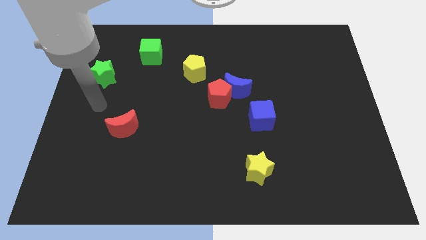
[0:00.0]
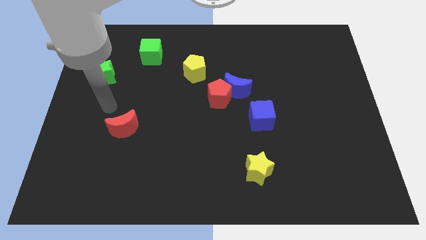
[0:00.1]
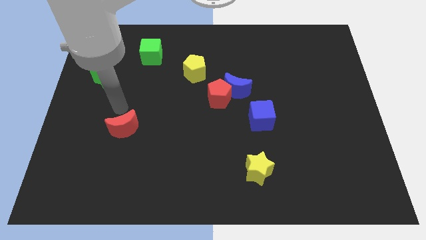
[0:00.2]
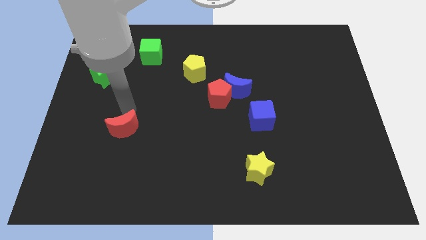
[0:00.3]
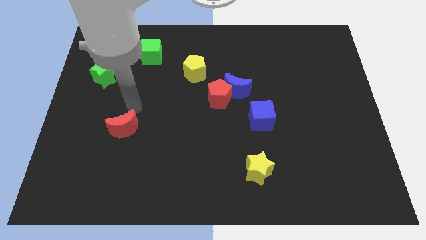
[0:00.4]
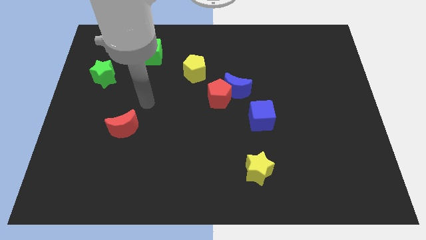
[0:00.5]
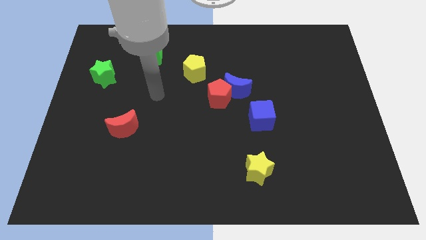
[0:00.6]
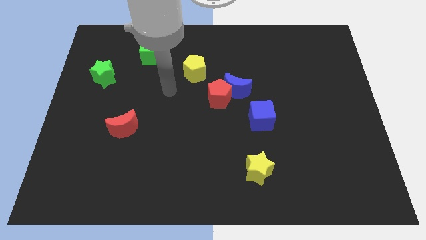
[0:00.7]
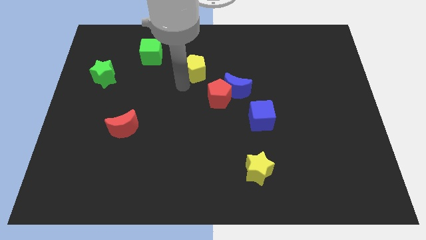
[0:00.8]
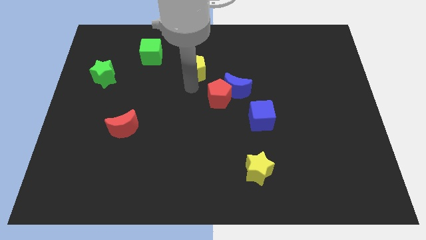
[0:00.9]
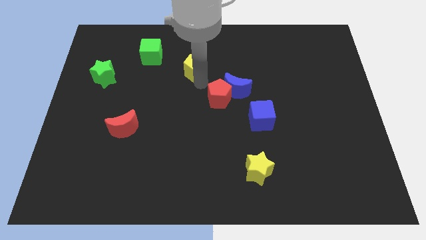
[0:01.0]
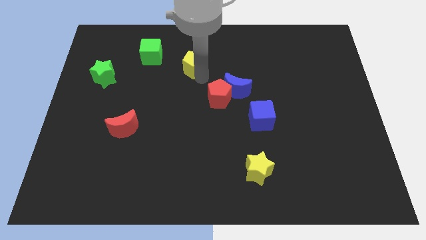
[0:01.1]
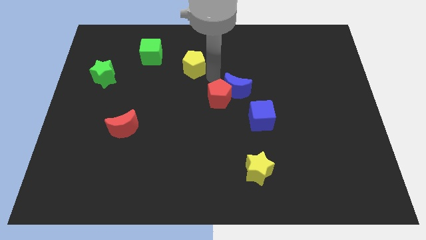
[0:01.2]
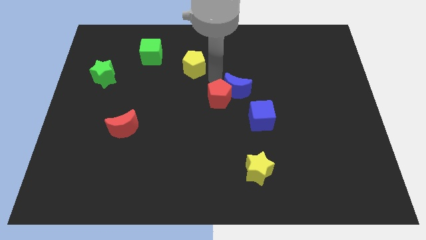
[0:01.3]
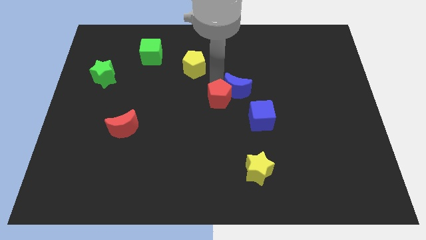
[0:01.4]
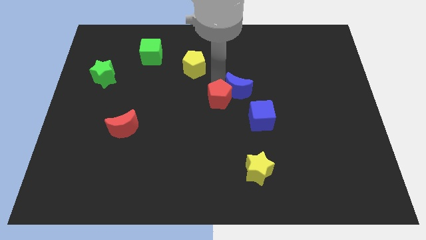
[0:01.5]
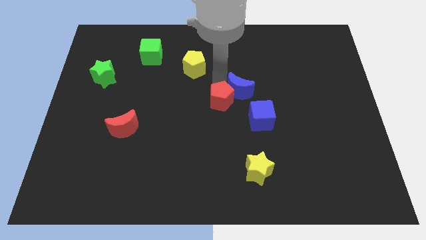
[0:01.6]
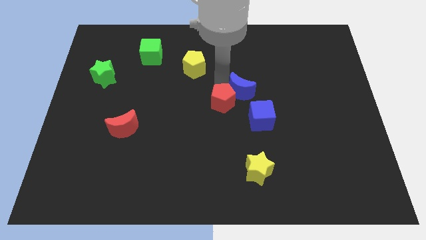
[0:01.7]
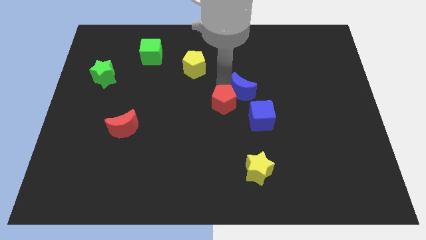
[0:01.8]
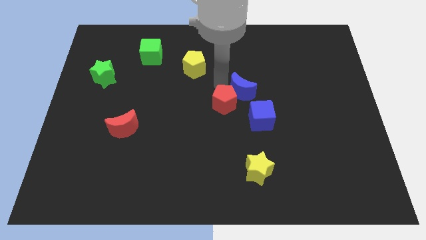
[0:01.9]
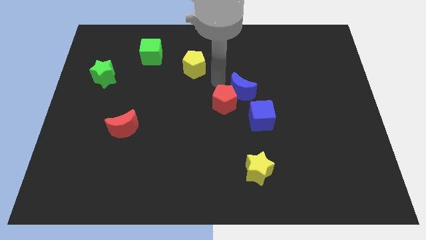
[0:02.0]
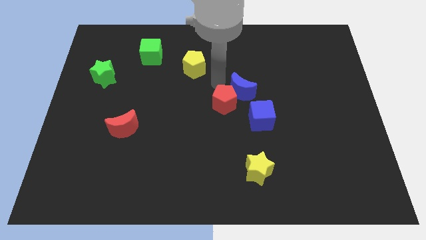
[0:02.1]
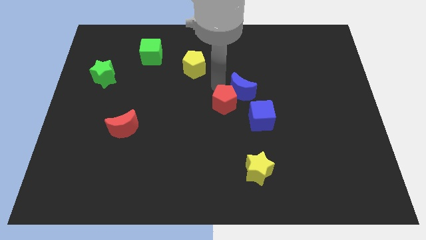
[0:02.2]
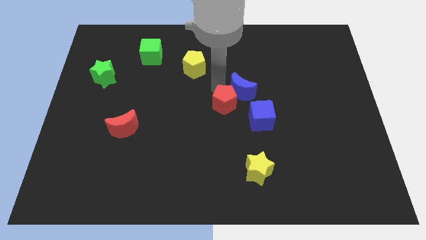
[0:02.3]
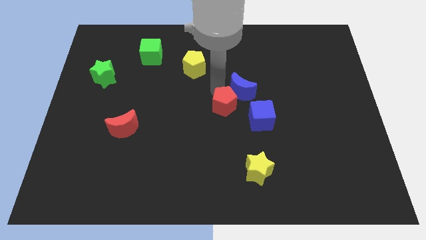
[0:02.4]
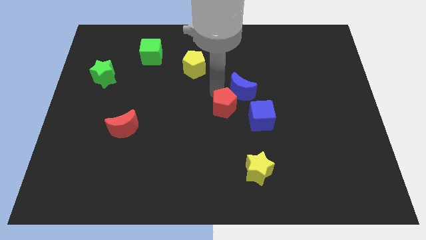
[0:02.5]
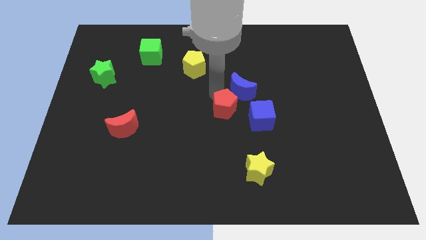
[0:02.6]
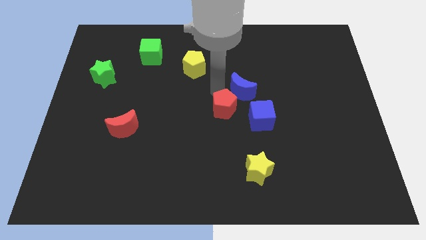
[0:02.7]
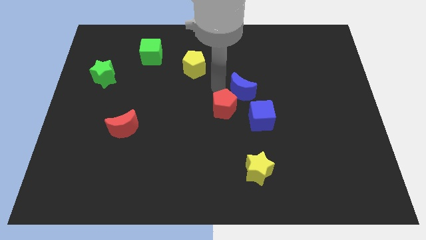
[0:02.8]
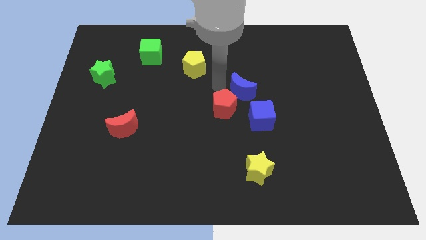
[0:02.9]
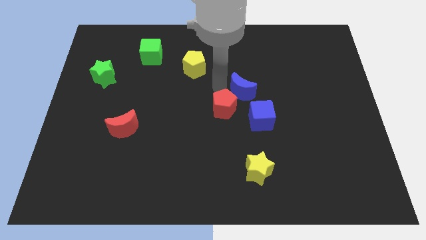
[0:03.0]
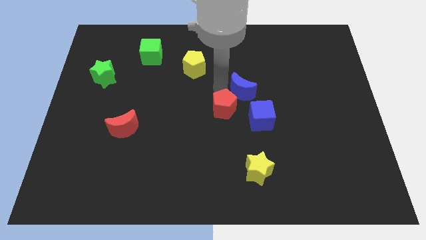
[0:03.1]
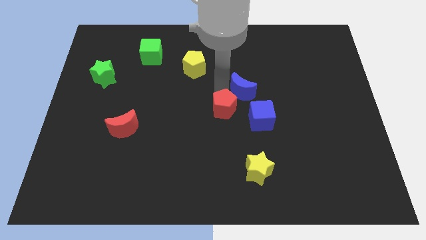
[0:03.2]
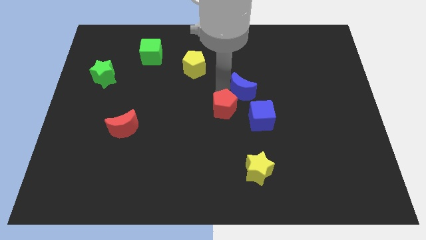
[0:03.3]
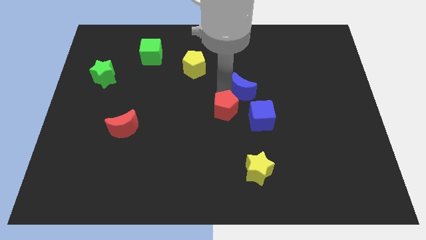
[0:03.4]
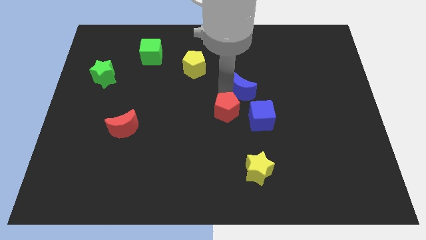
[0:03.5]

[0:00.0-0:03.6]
move the red pentagon away from the blue moon and yellow pentagon

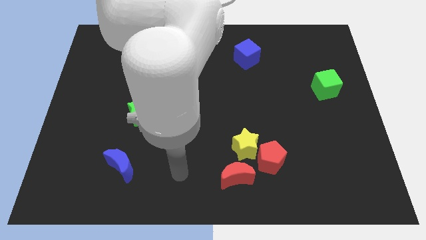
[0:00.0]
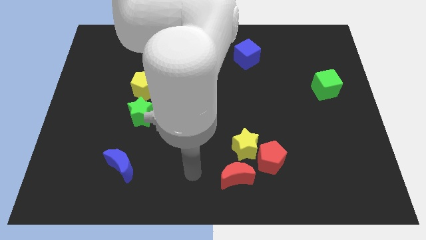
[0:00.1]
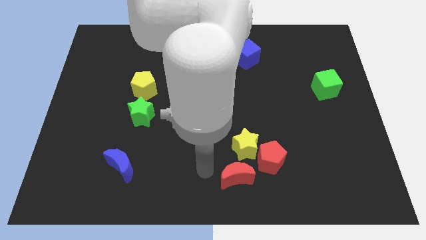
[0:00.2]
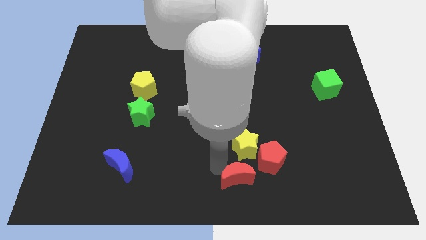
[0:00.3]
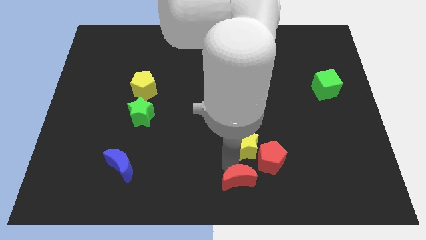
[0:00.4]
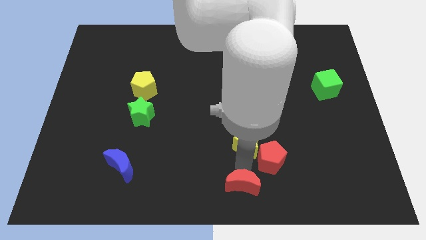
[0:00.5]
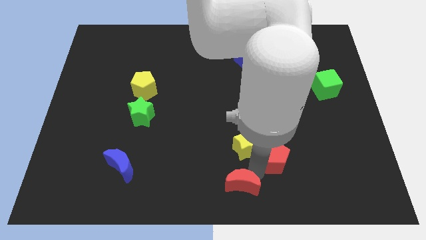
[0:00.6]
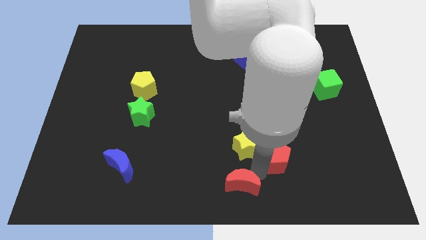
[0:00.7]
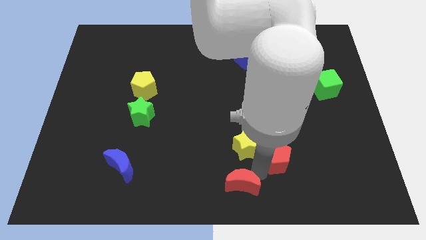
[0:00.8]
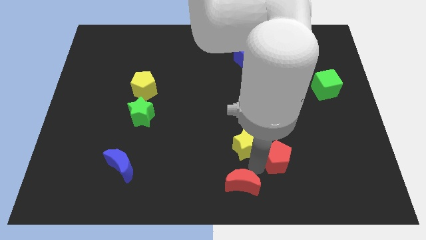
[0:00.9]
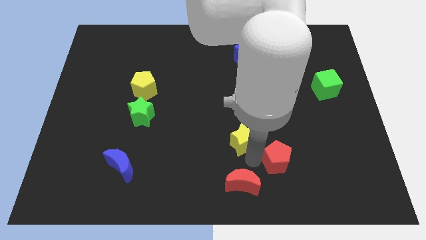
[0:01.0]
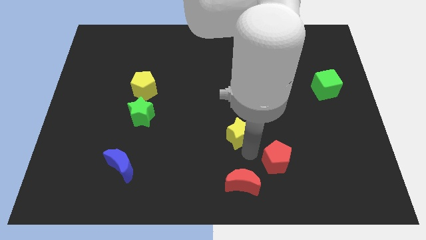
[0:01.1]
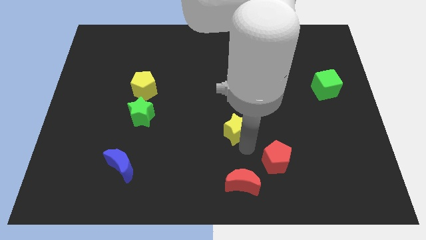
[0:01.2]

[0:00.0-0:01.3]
separate the yellow star from the red pentagon and red moon

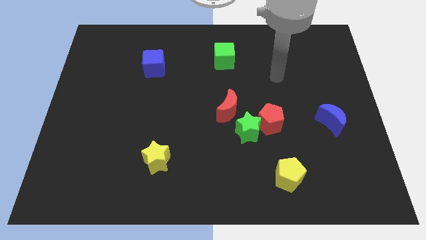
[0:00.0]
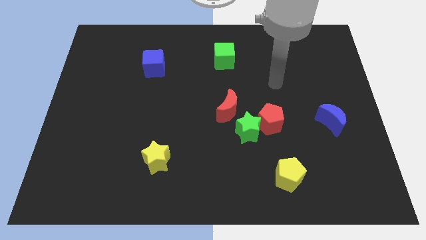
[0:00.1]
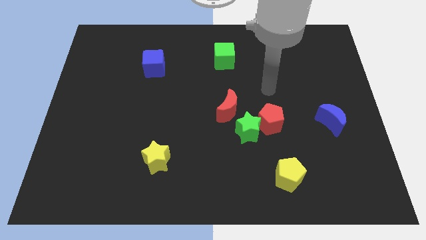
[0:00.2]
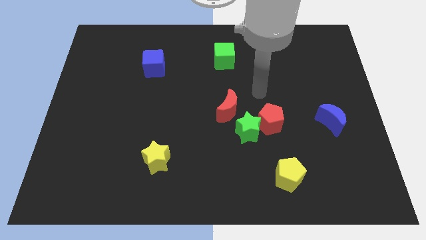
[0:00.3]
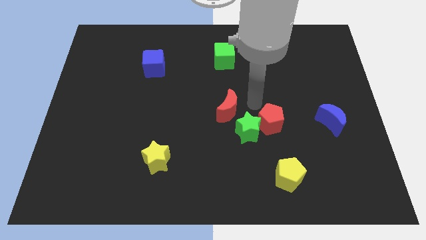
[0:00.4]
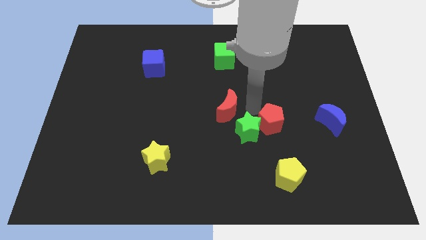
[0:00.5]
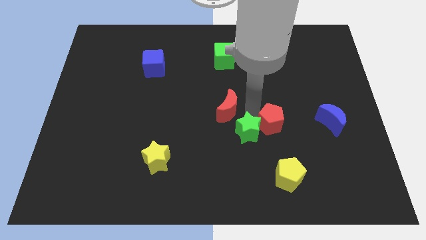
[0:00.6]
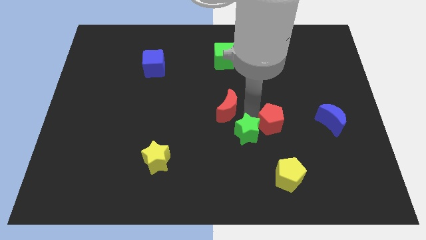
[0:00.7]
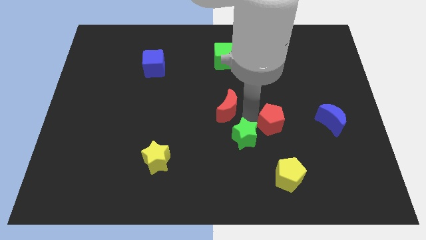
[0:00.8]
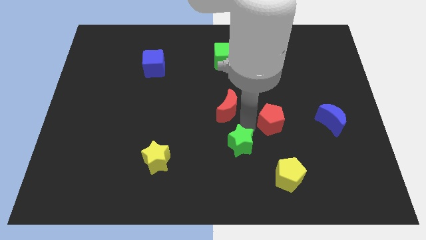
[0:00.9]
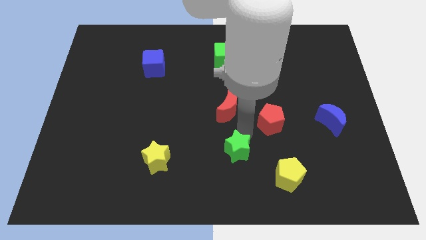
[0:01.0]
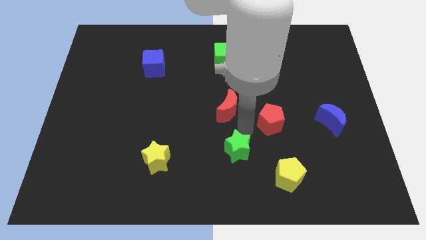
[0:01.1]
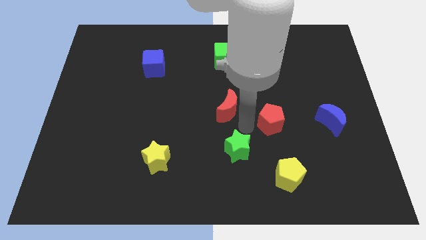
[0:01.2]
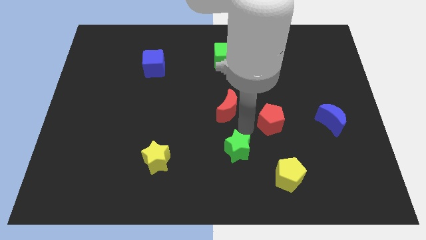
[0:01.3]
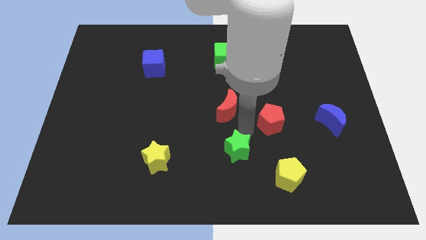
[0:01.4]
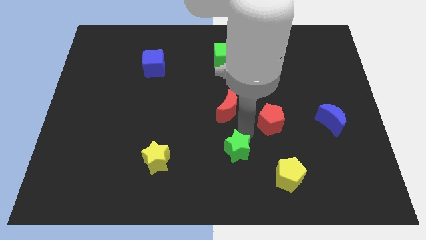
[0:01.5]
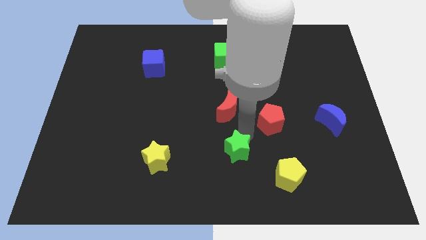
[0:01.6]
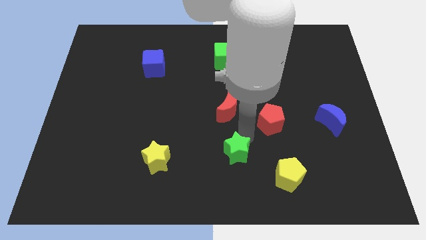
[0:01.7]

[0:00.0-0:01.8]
move the green star away from the red pentagon and red moon

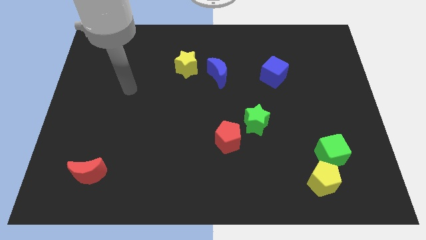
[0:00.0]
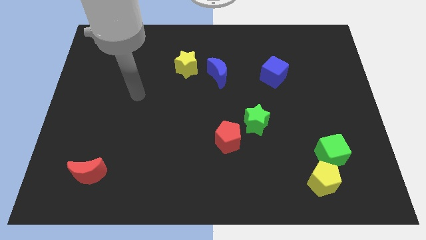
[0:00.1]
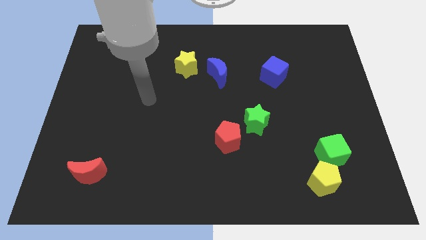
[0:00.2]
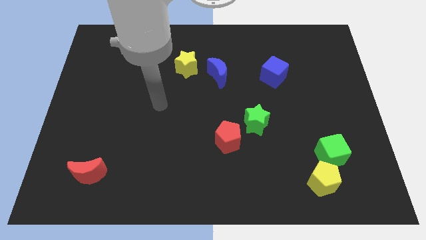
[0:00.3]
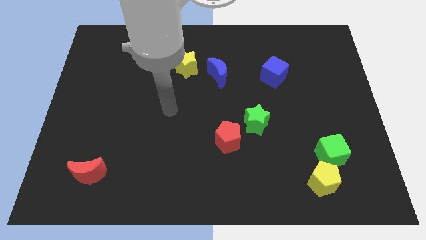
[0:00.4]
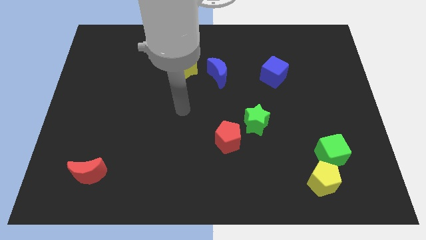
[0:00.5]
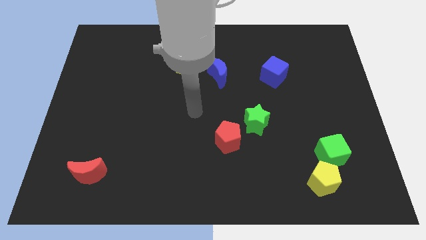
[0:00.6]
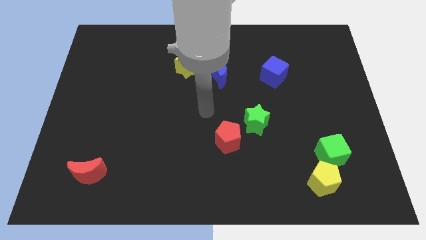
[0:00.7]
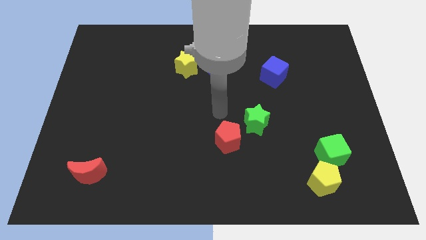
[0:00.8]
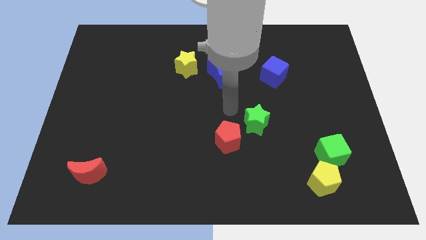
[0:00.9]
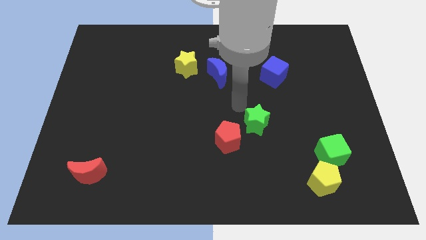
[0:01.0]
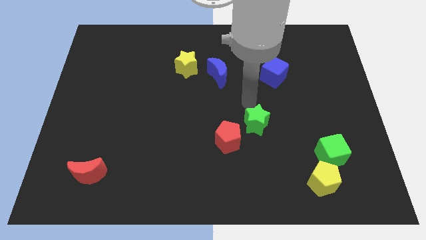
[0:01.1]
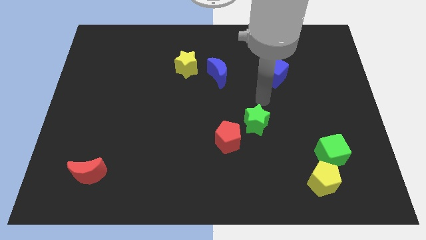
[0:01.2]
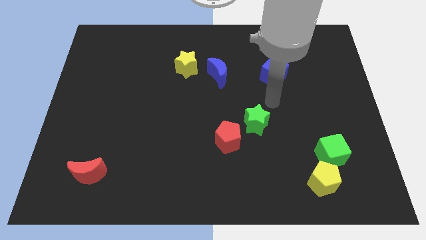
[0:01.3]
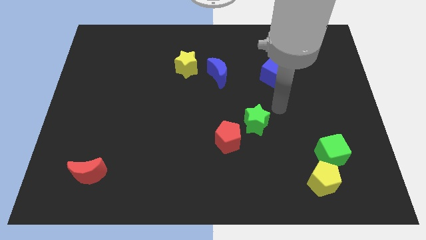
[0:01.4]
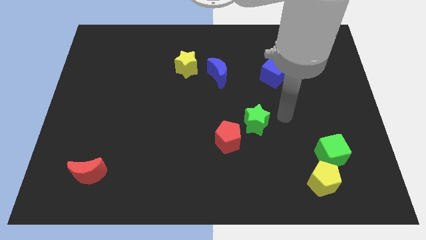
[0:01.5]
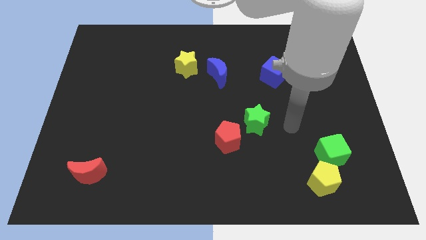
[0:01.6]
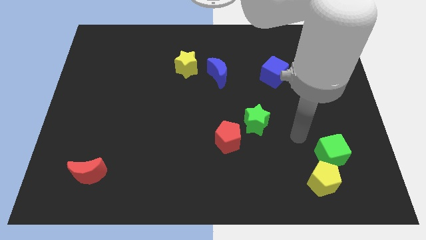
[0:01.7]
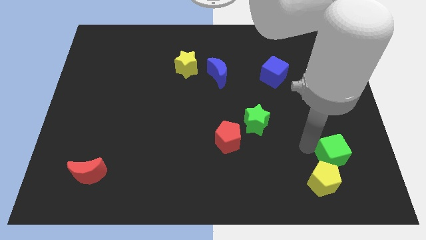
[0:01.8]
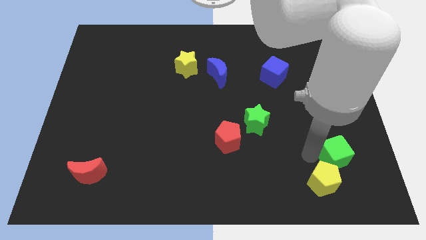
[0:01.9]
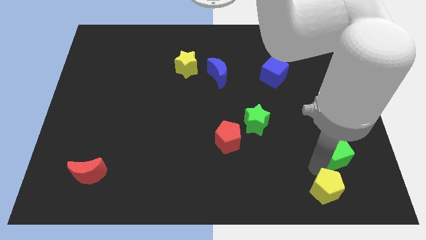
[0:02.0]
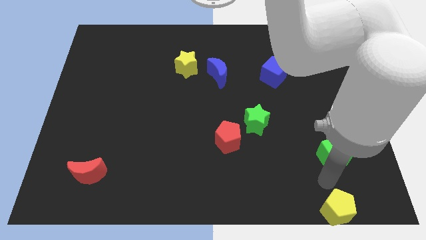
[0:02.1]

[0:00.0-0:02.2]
separate the green cube from the yellow pentagon

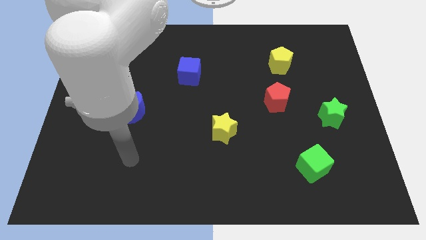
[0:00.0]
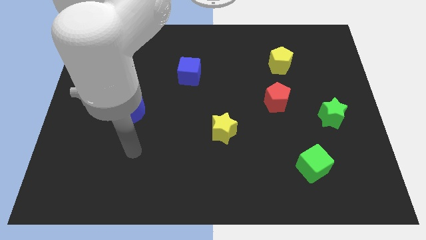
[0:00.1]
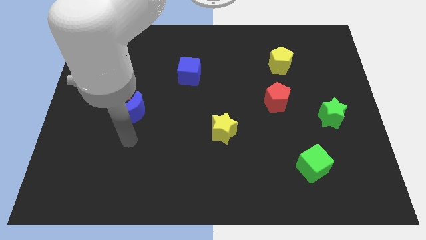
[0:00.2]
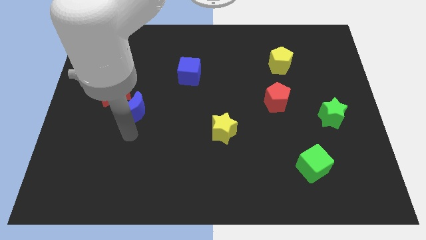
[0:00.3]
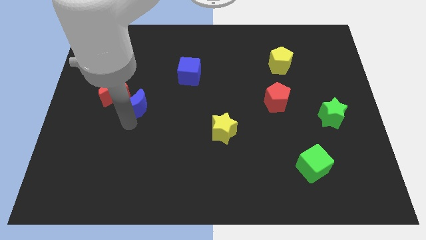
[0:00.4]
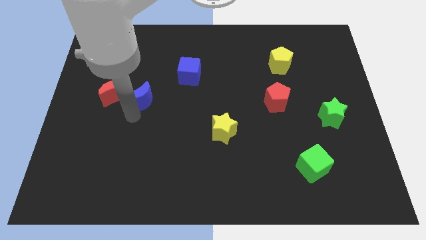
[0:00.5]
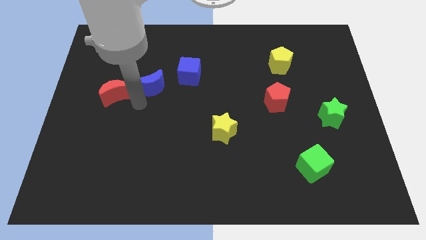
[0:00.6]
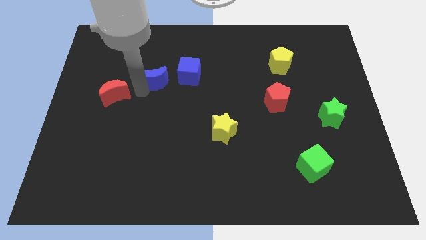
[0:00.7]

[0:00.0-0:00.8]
pull the red moon apart from the blue moon
